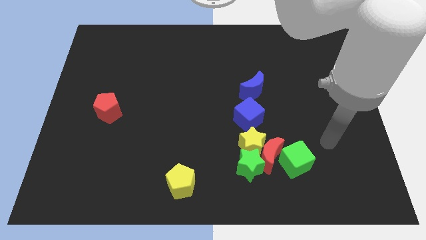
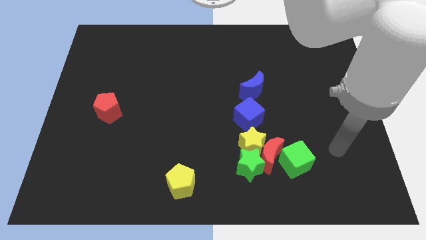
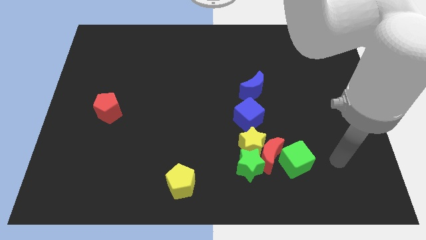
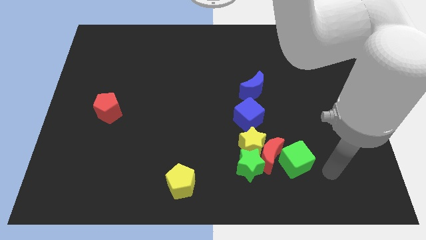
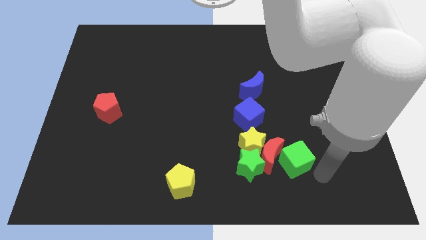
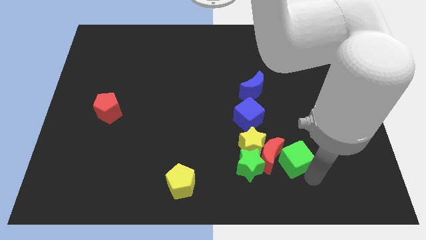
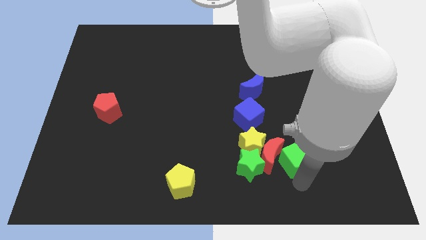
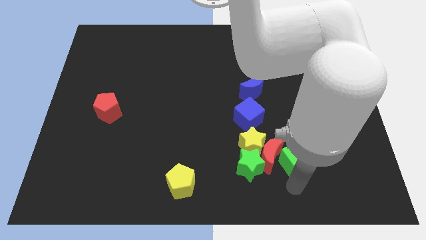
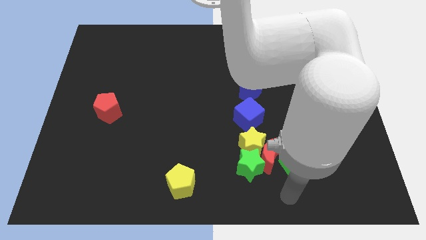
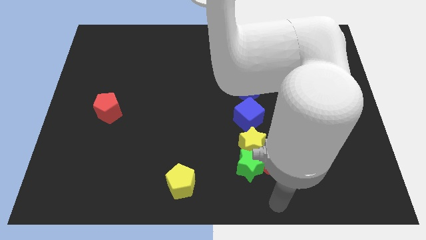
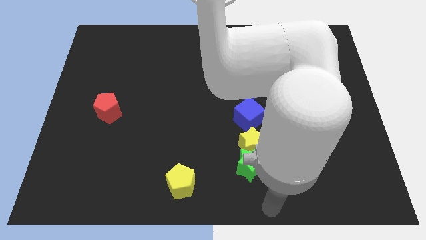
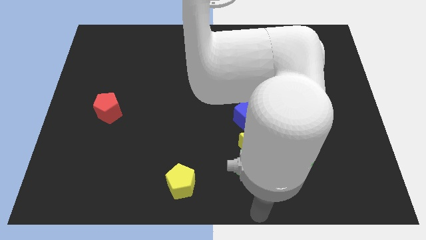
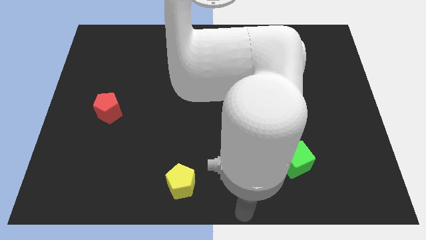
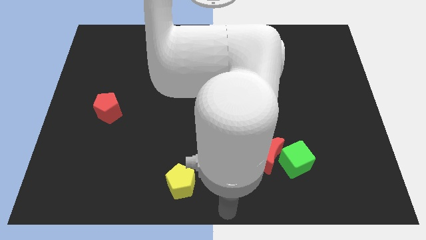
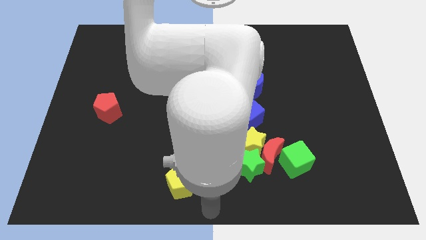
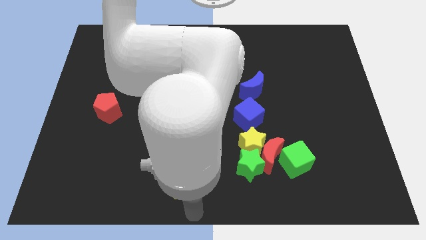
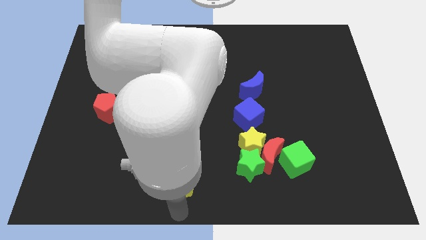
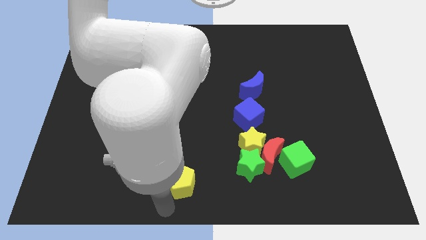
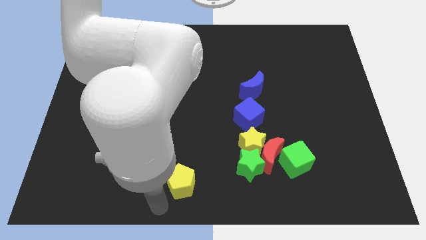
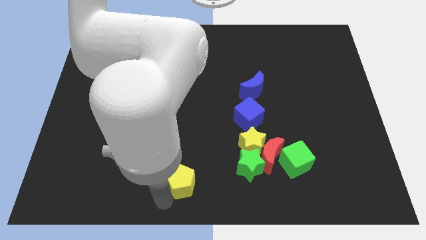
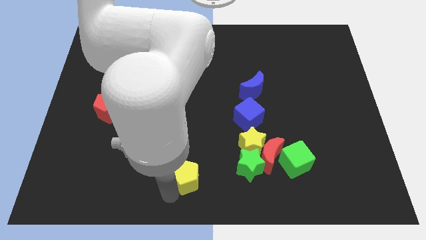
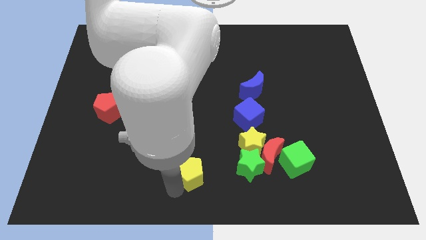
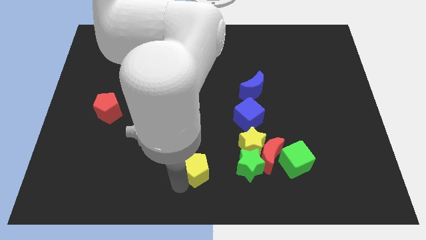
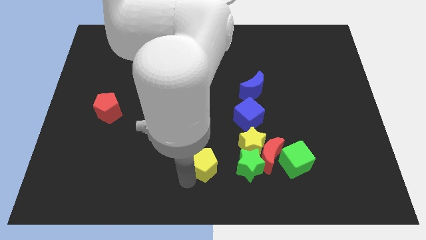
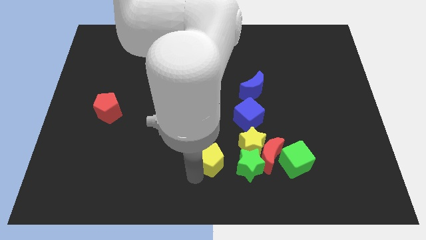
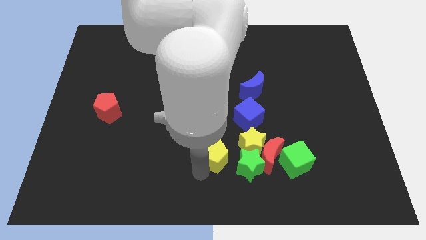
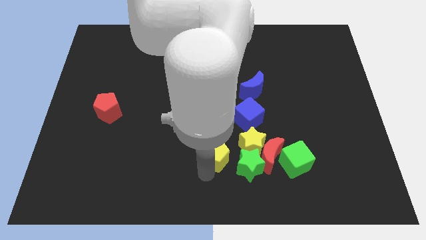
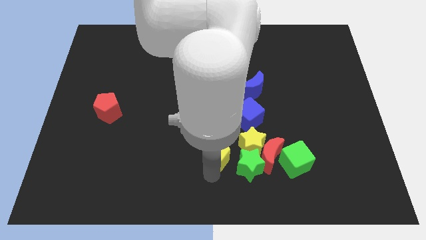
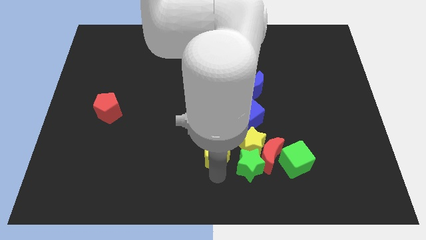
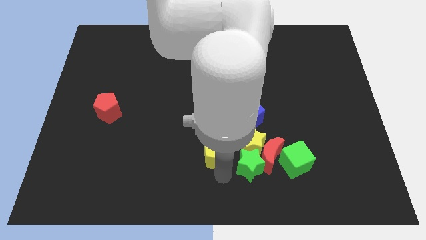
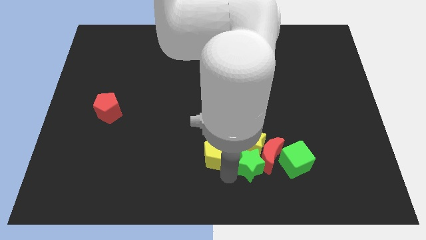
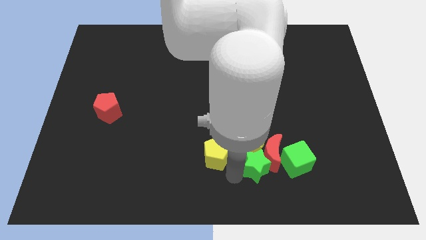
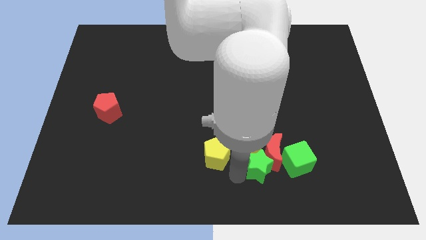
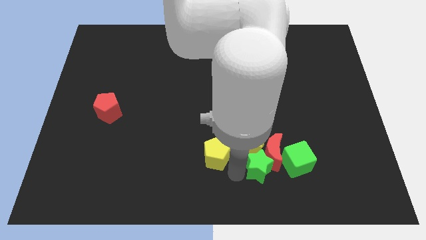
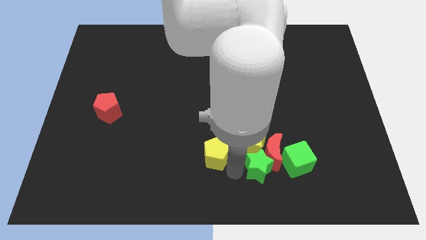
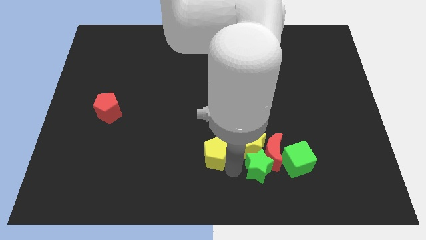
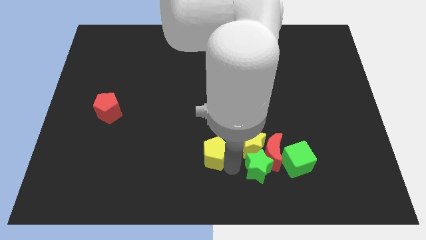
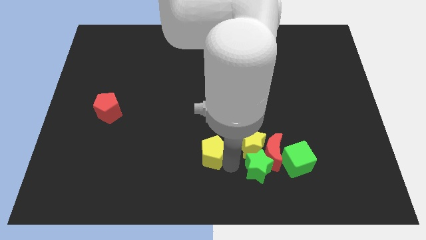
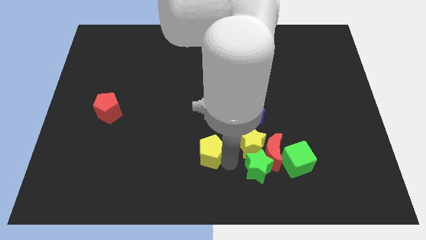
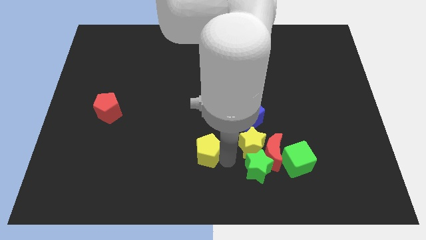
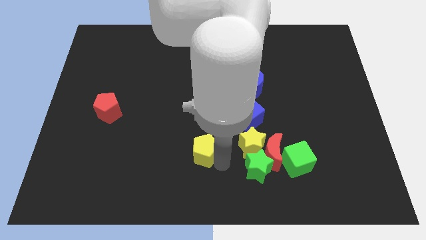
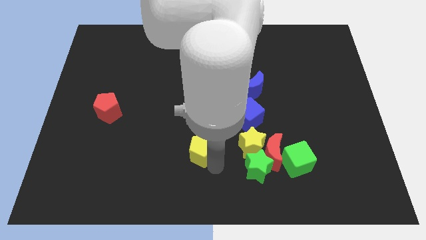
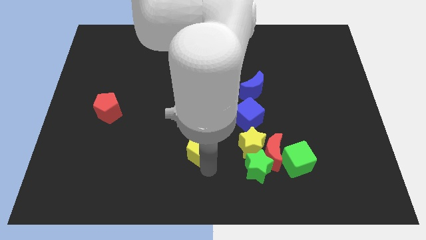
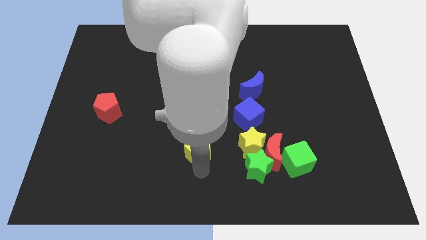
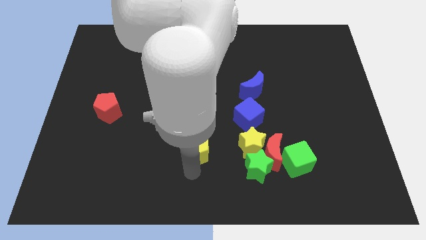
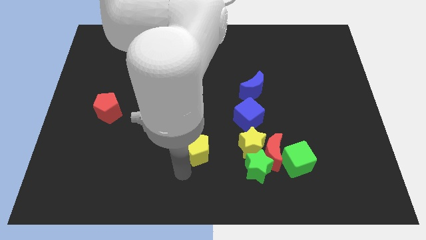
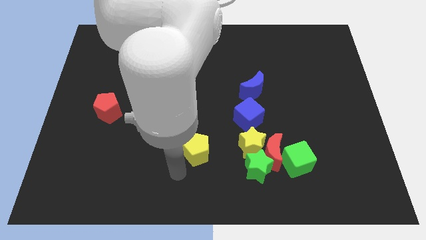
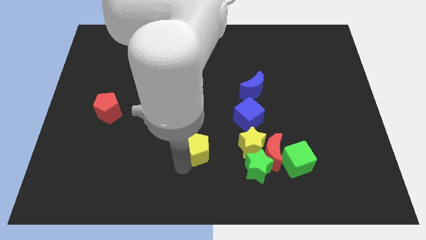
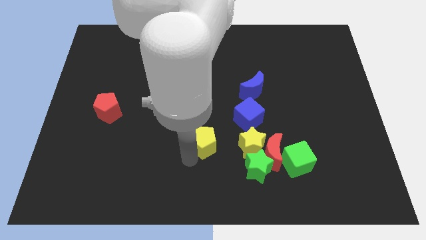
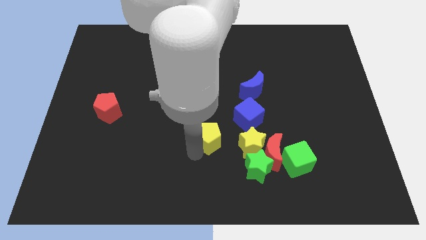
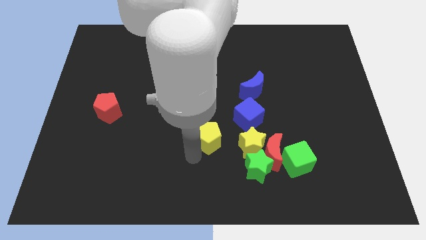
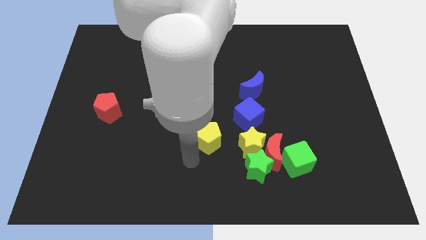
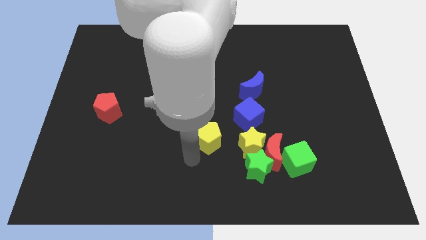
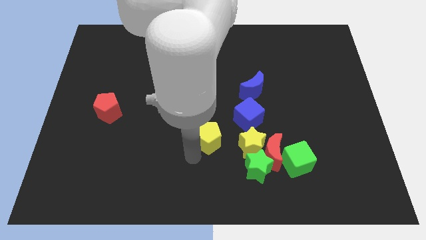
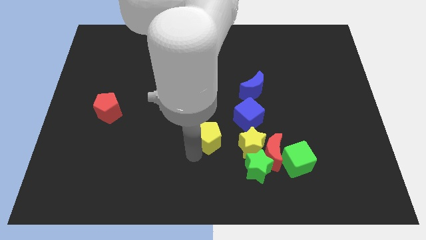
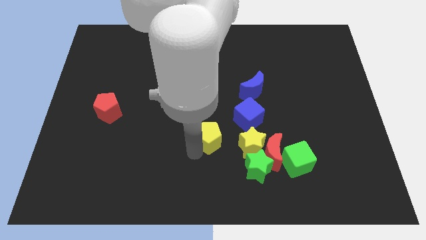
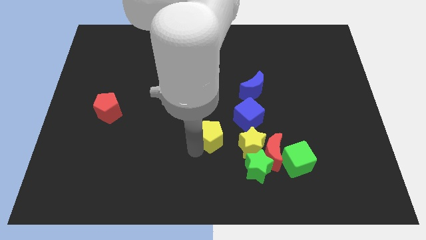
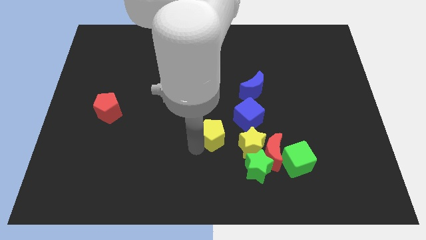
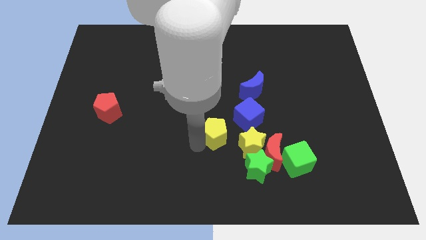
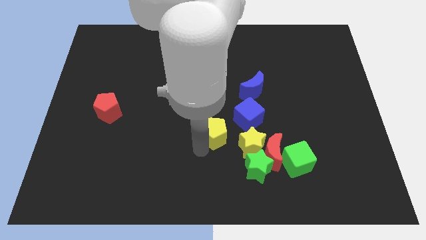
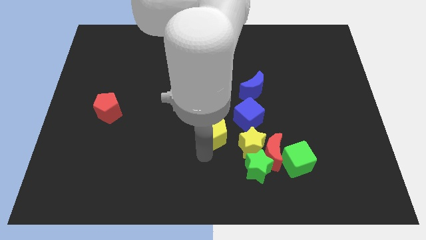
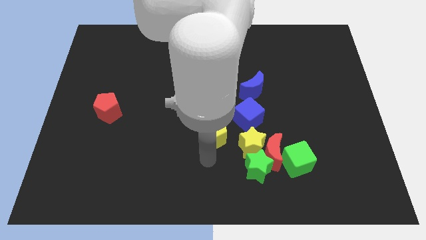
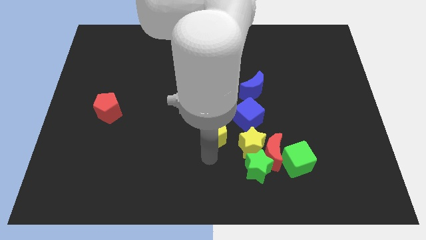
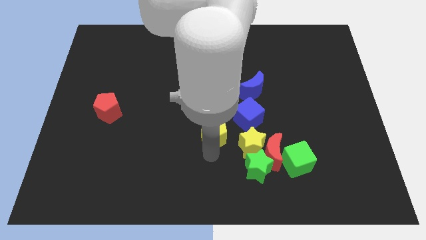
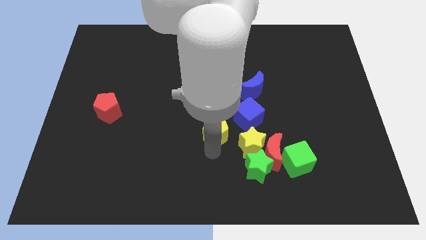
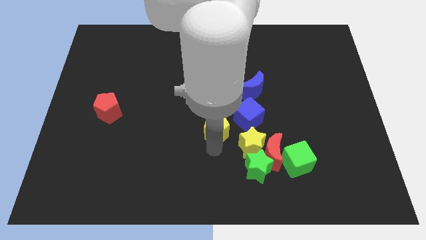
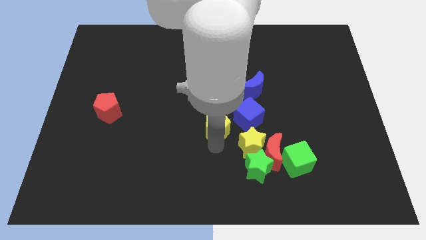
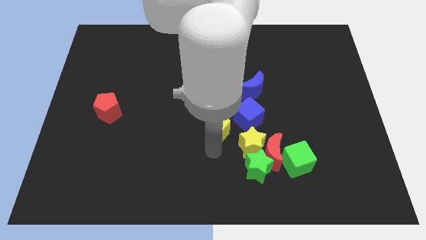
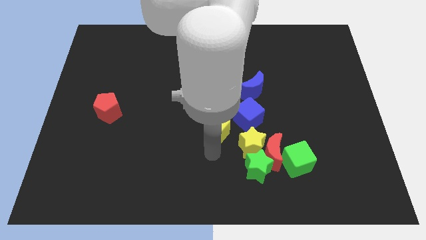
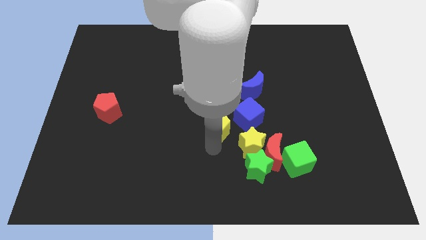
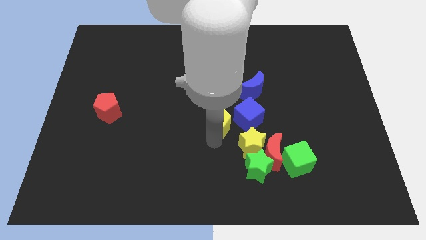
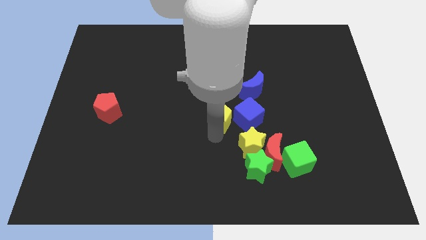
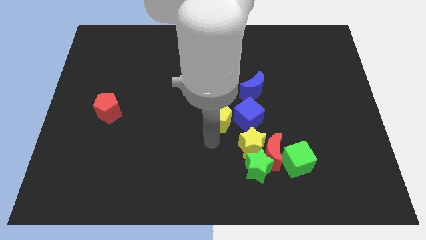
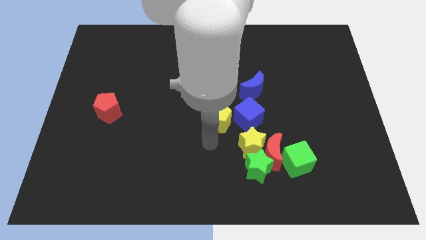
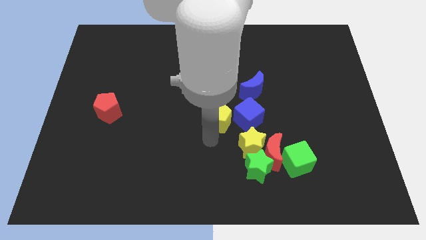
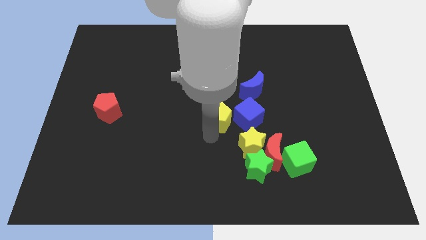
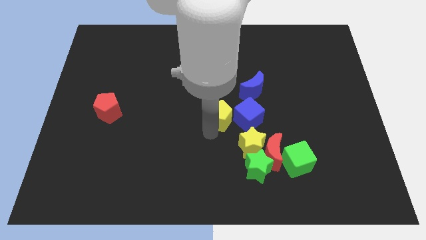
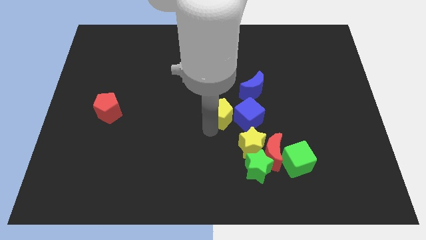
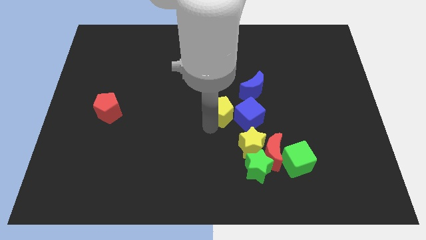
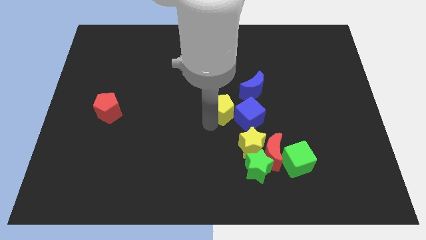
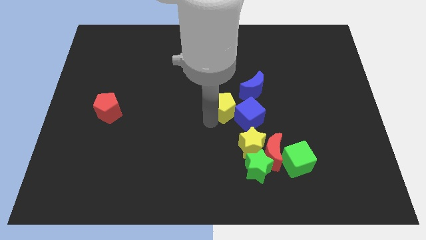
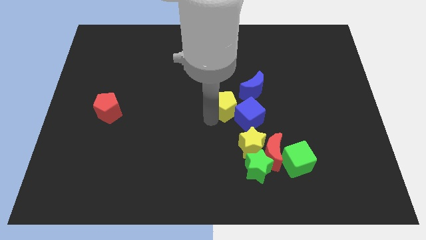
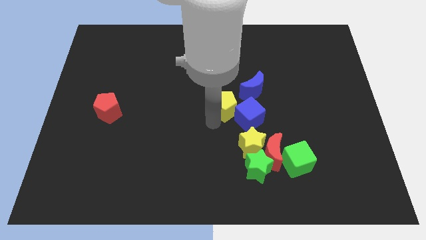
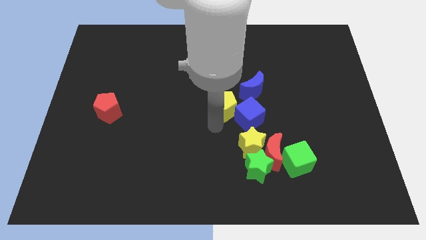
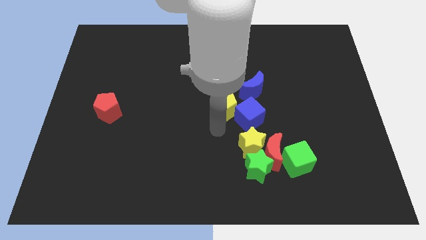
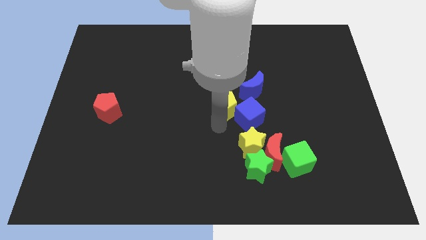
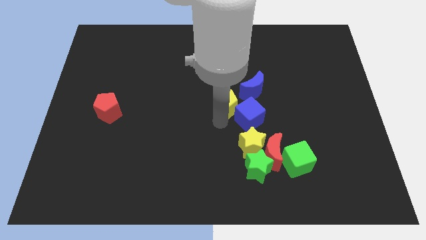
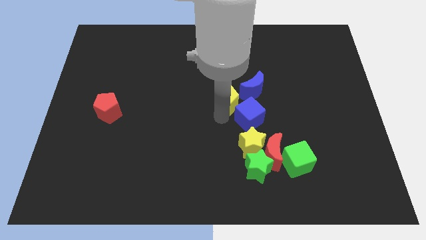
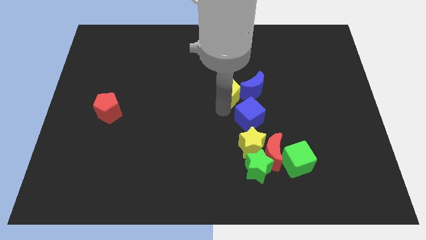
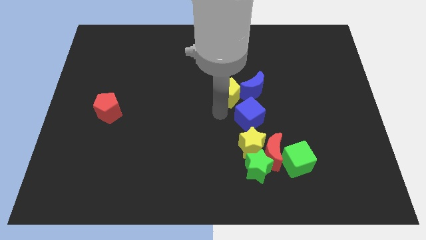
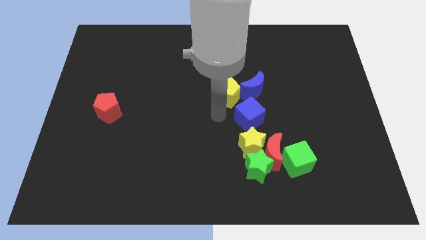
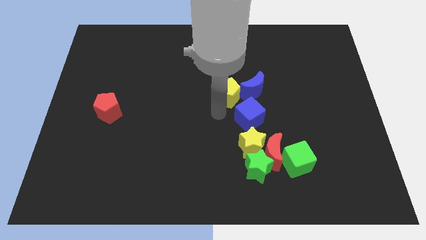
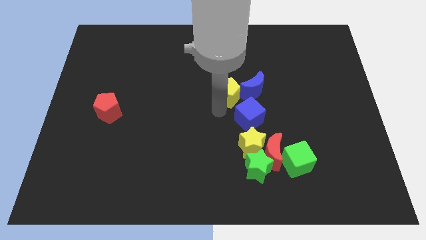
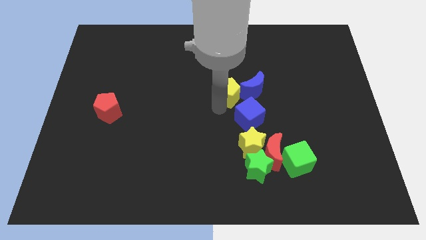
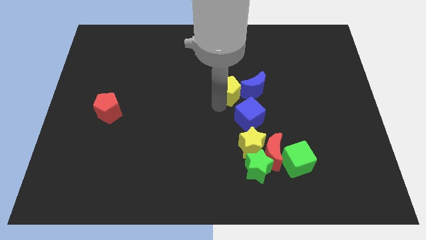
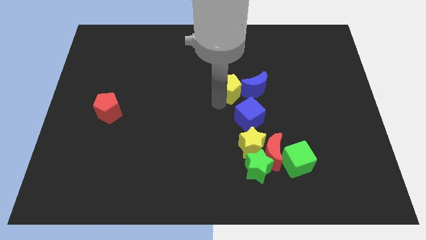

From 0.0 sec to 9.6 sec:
slide the yellow pentagon diagonally up and to the right
